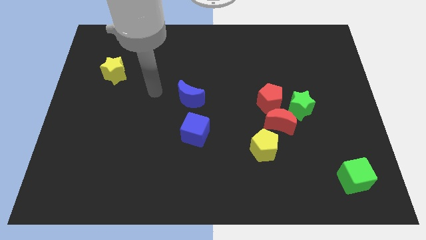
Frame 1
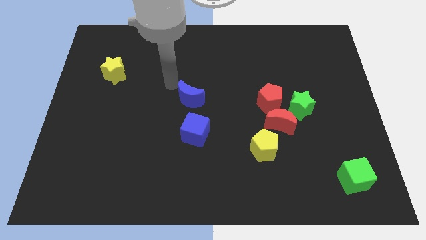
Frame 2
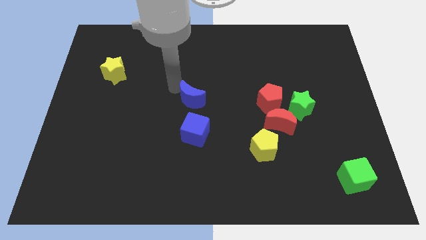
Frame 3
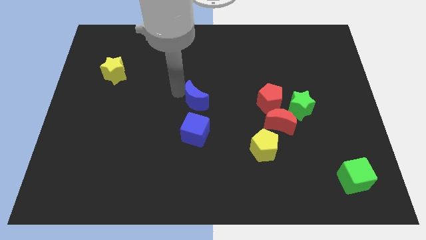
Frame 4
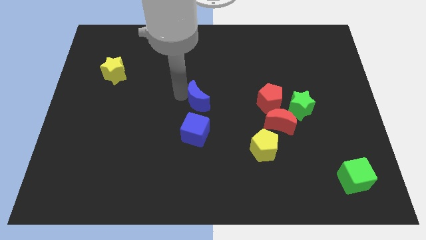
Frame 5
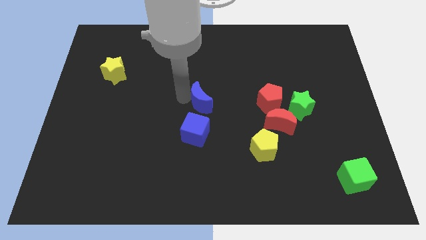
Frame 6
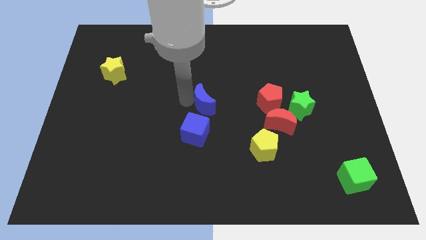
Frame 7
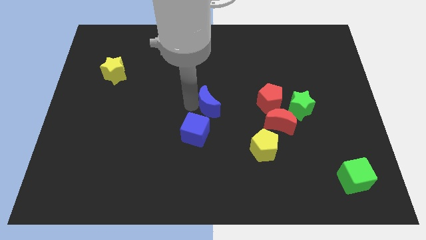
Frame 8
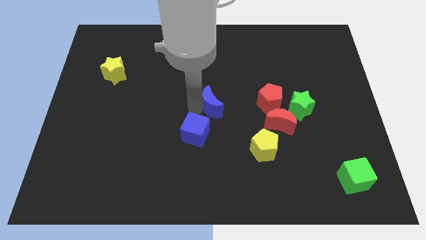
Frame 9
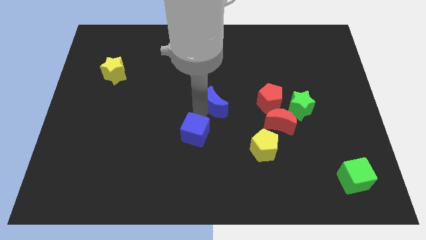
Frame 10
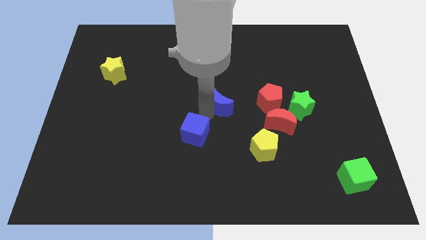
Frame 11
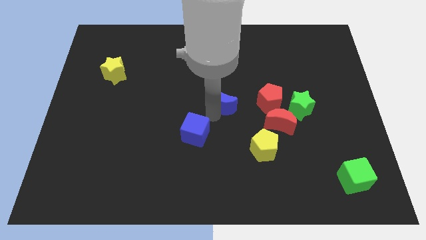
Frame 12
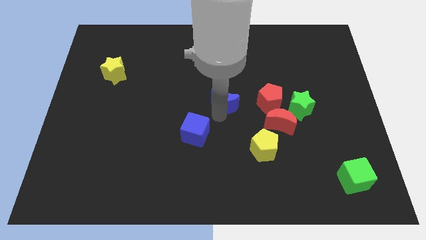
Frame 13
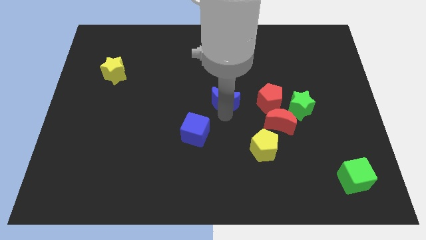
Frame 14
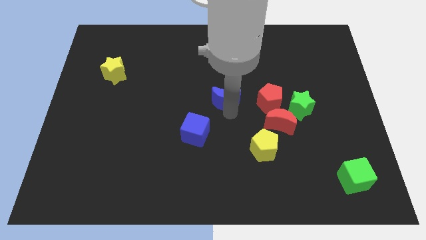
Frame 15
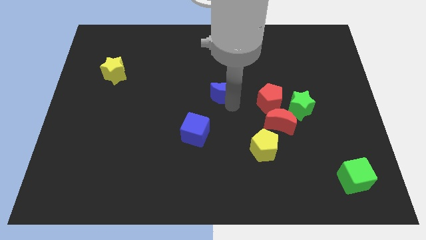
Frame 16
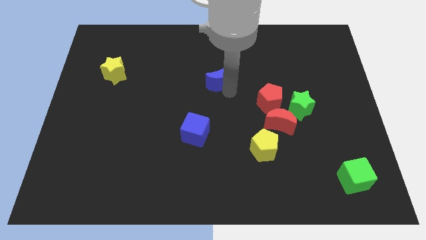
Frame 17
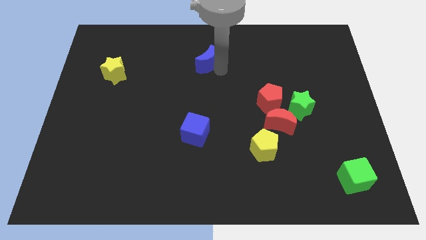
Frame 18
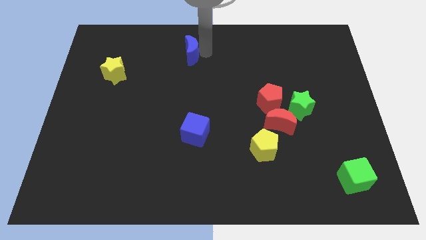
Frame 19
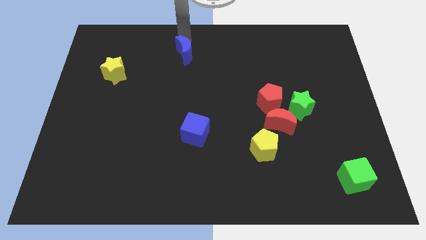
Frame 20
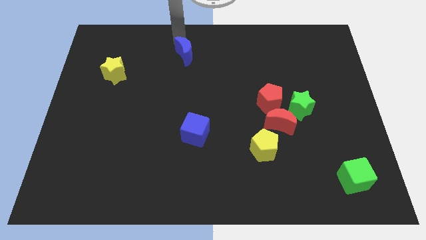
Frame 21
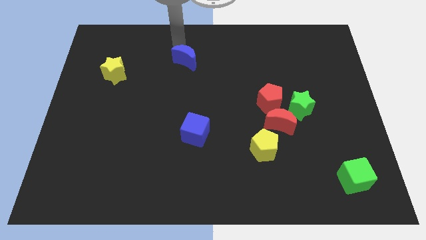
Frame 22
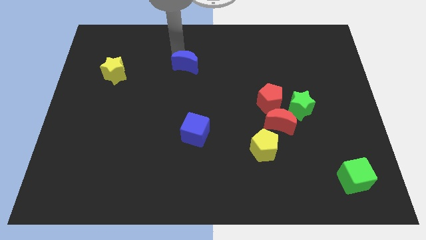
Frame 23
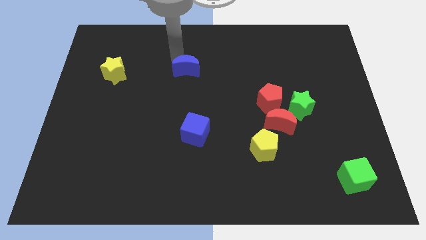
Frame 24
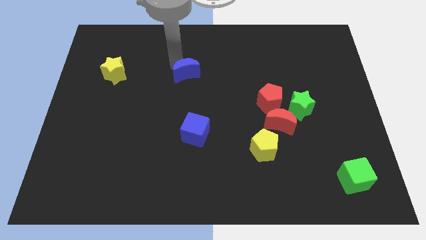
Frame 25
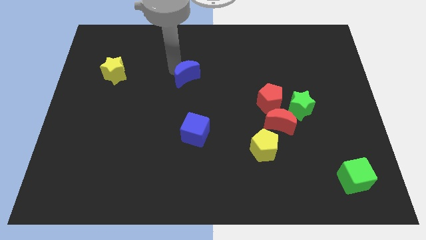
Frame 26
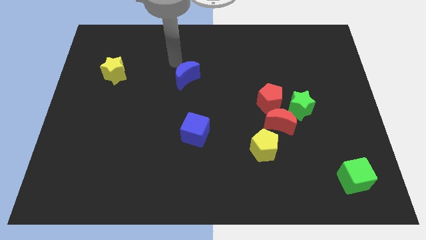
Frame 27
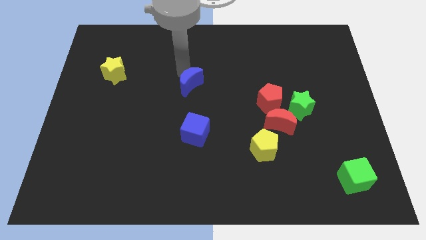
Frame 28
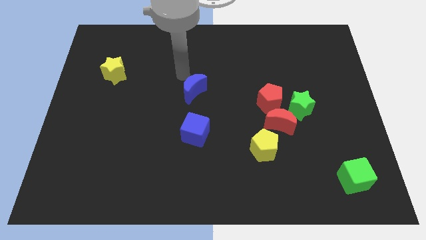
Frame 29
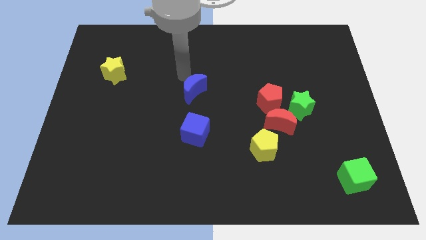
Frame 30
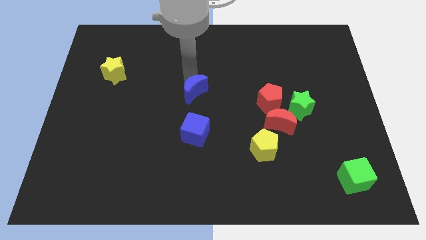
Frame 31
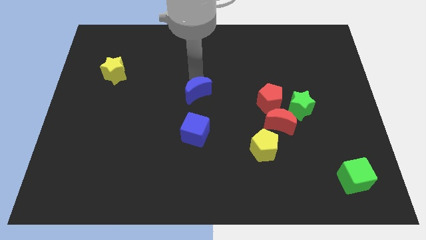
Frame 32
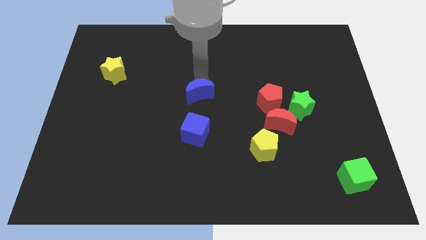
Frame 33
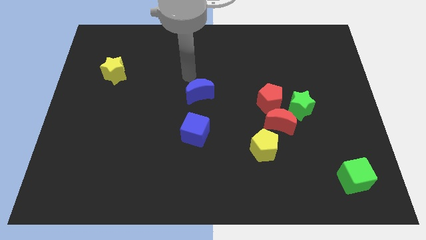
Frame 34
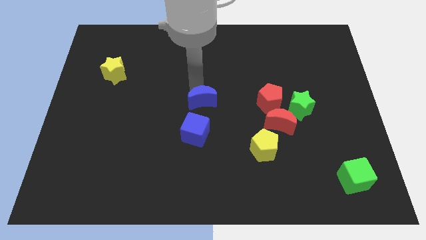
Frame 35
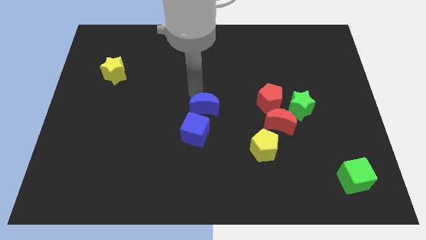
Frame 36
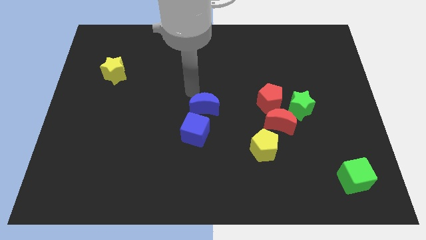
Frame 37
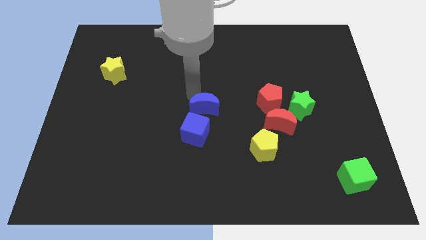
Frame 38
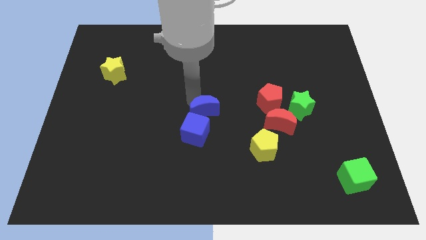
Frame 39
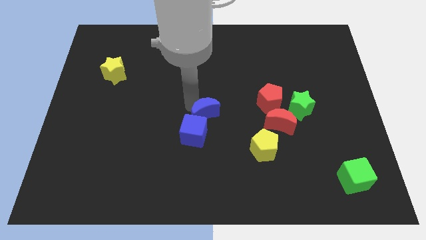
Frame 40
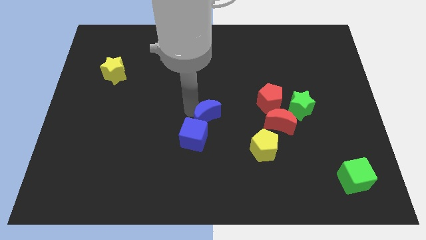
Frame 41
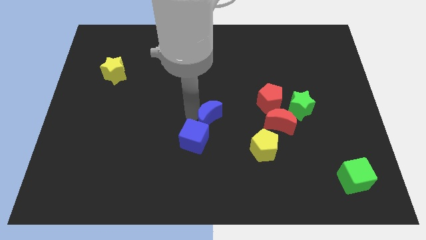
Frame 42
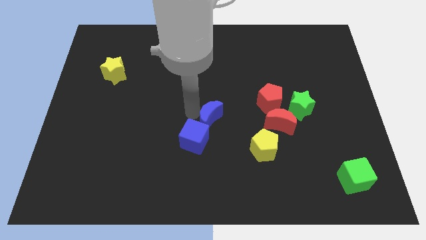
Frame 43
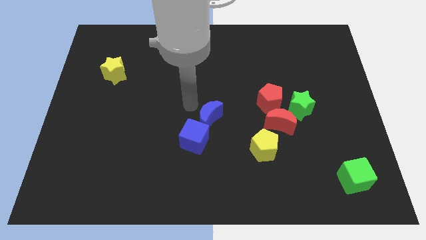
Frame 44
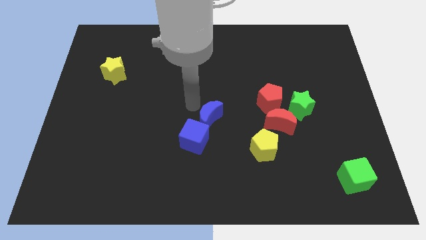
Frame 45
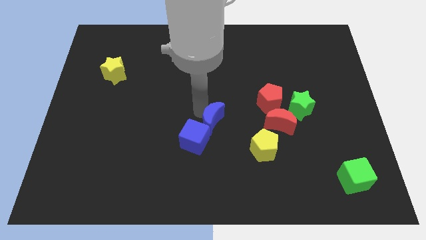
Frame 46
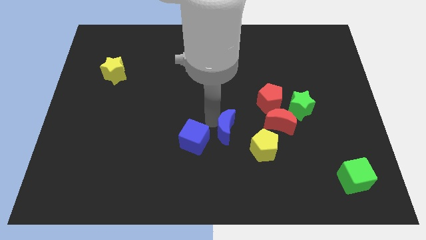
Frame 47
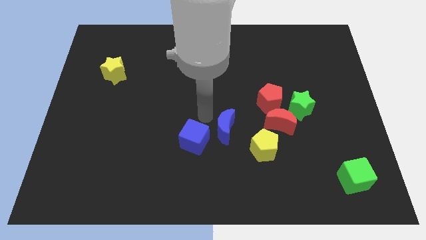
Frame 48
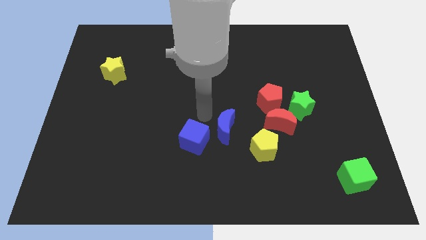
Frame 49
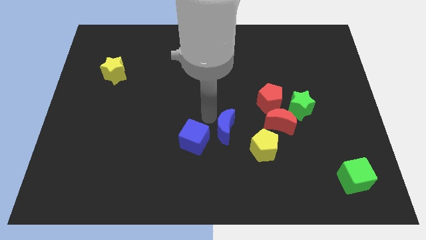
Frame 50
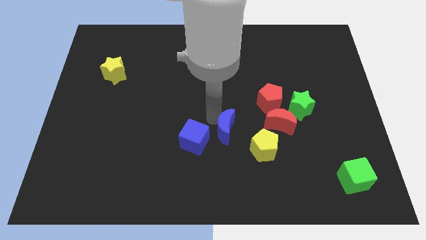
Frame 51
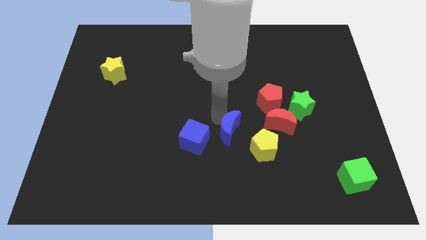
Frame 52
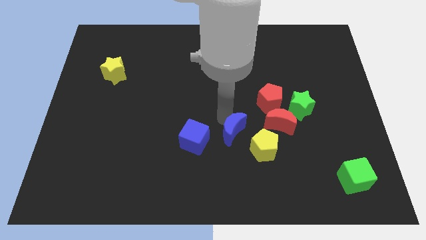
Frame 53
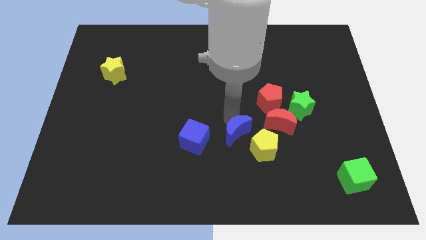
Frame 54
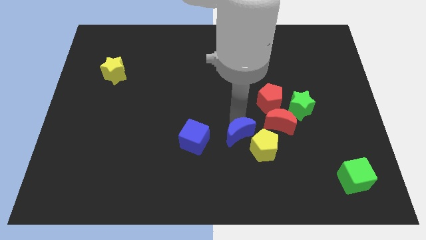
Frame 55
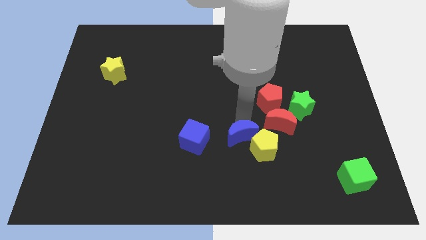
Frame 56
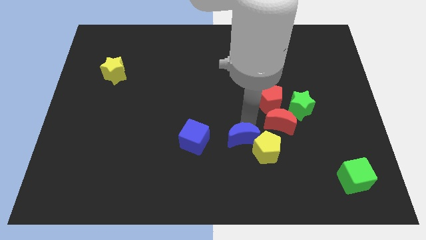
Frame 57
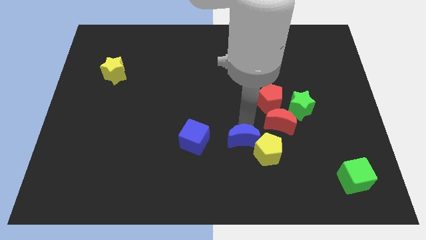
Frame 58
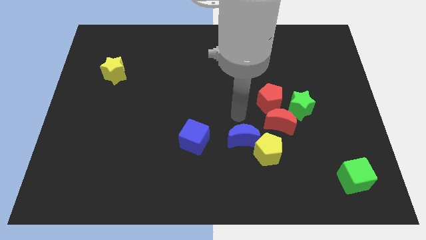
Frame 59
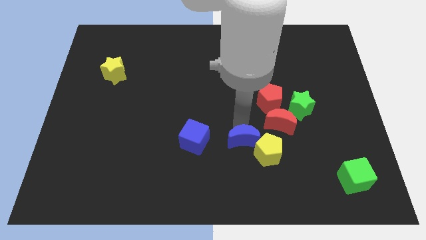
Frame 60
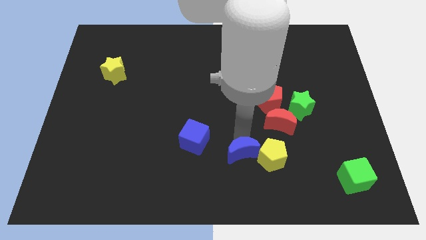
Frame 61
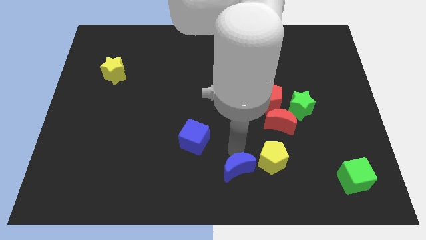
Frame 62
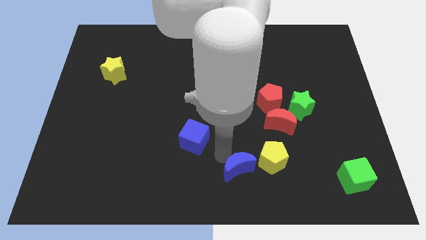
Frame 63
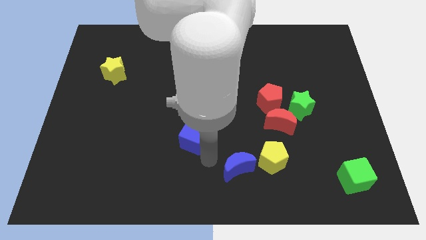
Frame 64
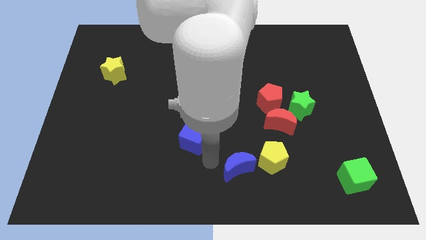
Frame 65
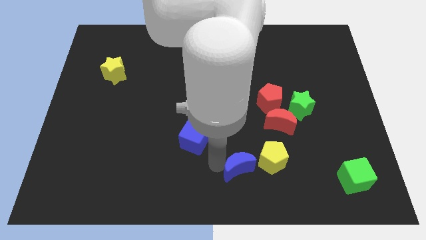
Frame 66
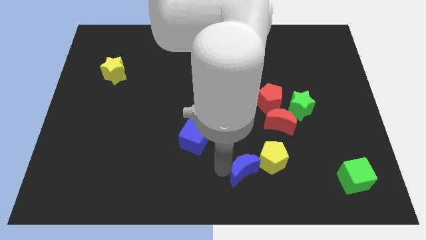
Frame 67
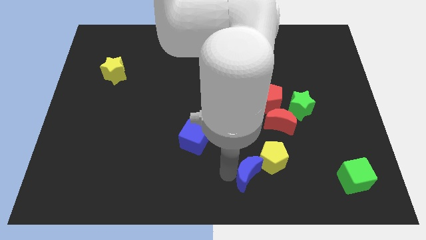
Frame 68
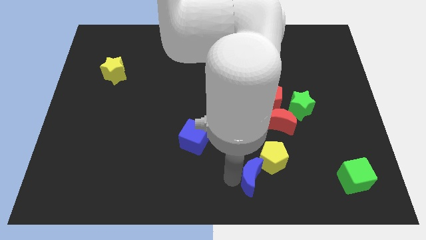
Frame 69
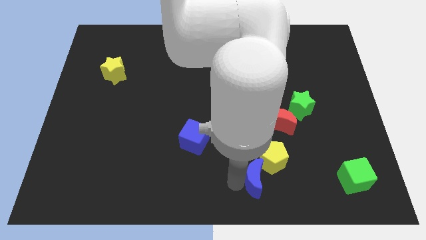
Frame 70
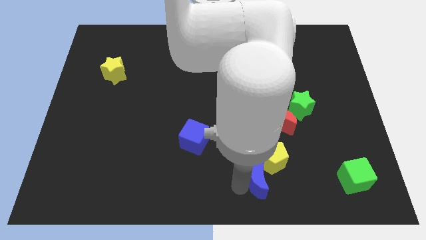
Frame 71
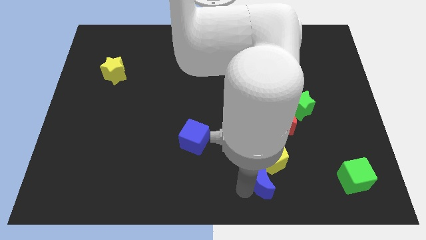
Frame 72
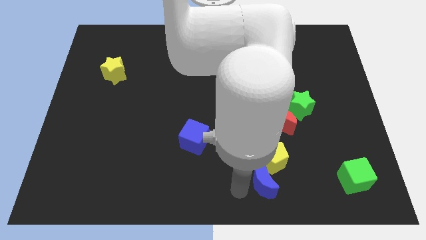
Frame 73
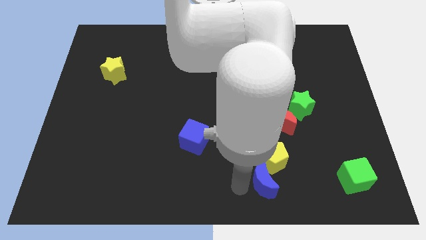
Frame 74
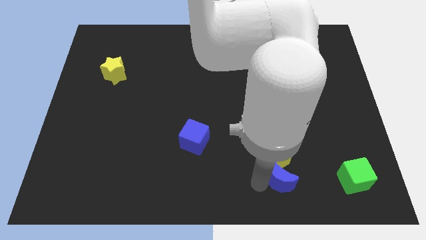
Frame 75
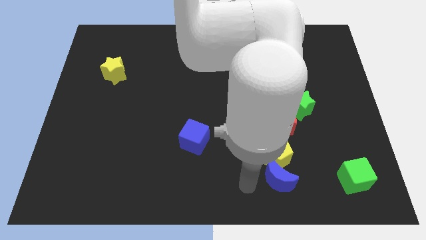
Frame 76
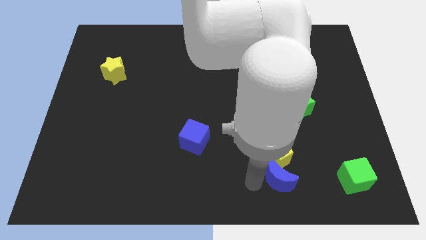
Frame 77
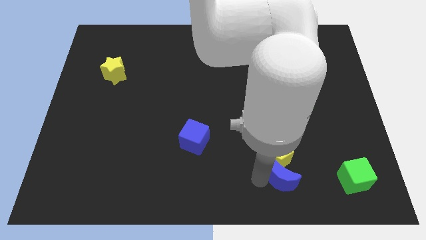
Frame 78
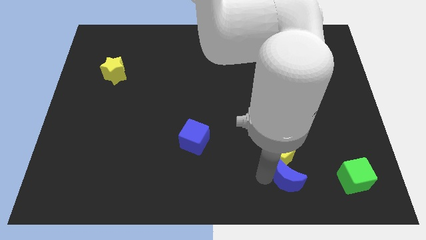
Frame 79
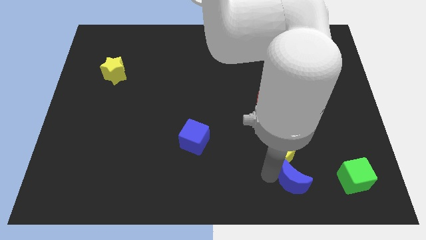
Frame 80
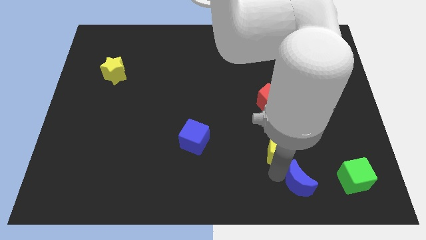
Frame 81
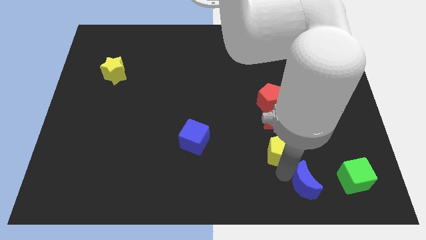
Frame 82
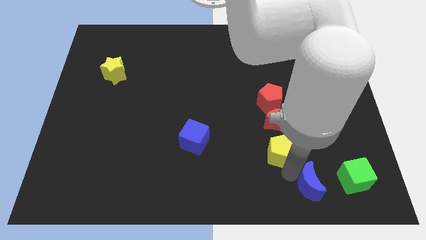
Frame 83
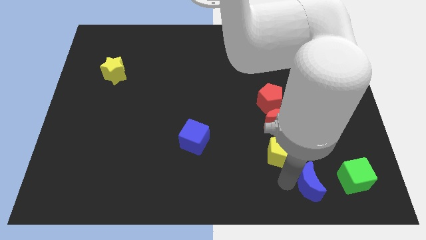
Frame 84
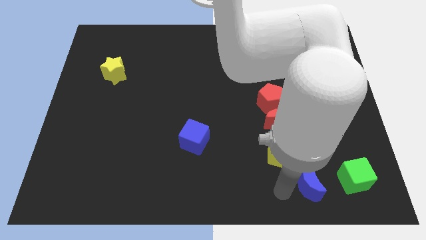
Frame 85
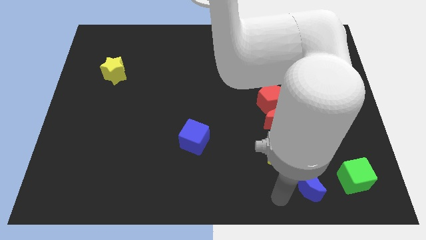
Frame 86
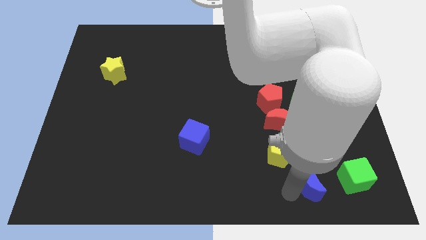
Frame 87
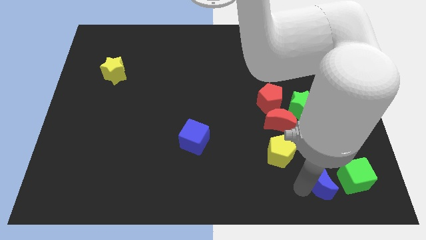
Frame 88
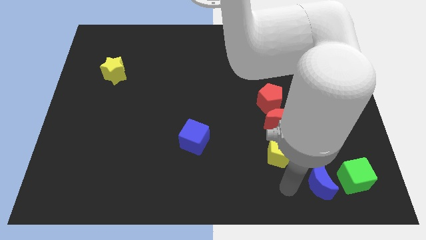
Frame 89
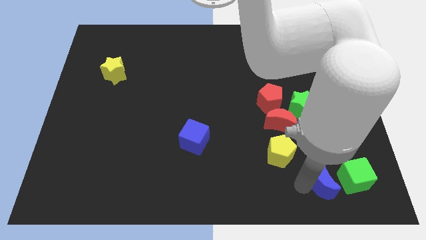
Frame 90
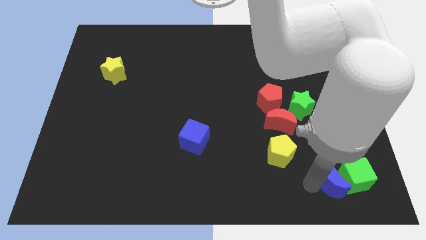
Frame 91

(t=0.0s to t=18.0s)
move the blue moon next to the green cube
